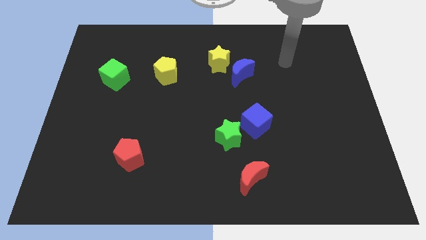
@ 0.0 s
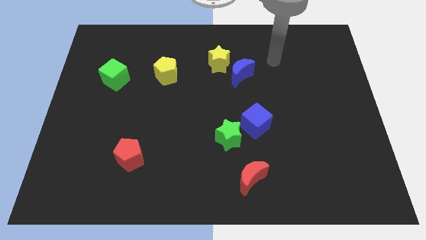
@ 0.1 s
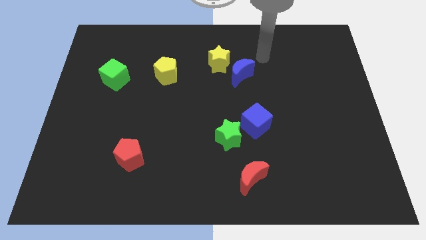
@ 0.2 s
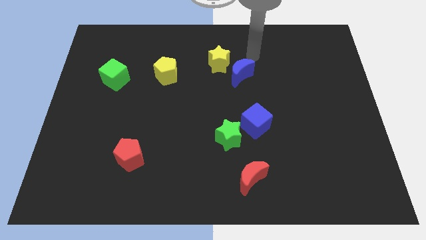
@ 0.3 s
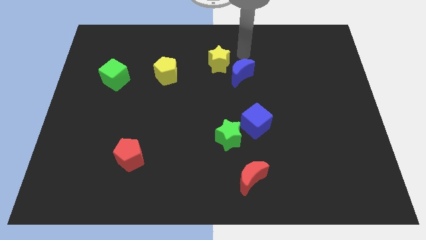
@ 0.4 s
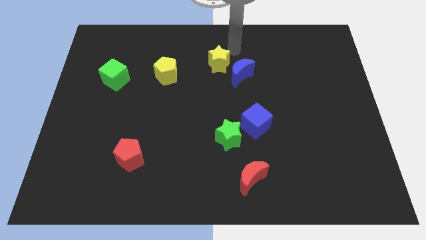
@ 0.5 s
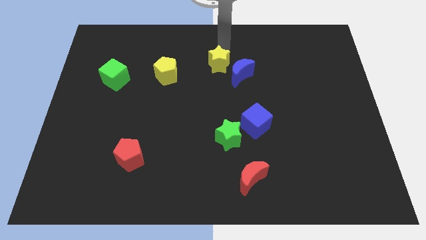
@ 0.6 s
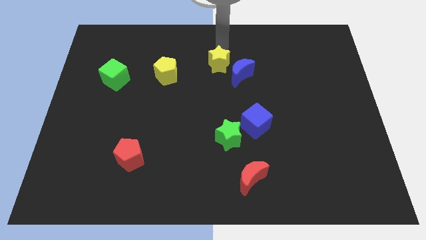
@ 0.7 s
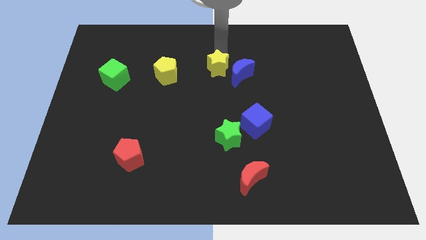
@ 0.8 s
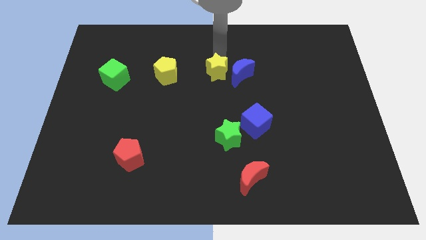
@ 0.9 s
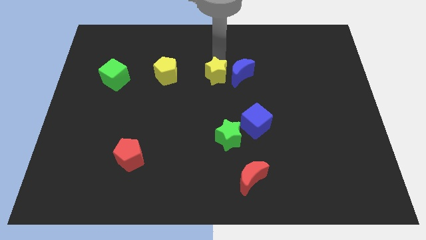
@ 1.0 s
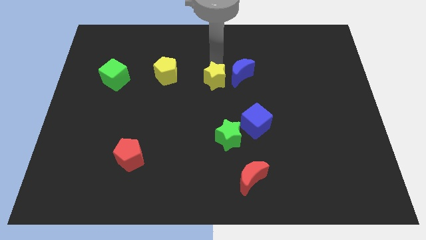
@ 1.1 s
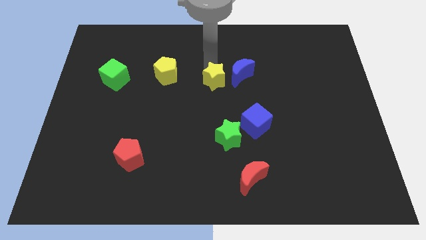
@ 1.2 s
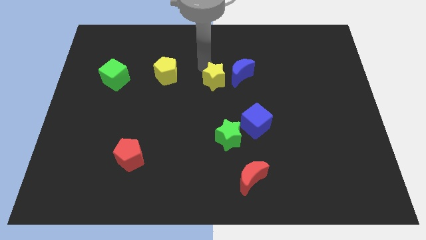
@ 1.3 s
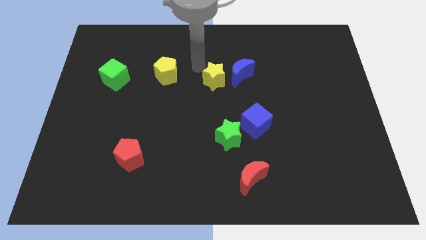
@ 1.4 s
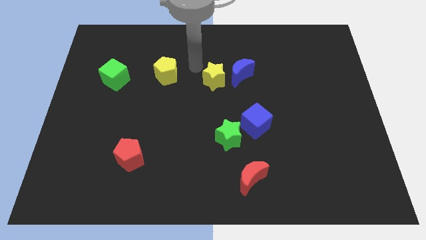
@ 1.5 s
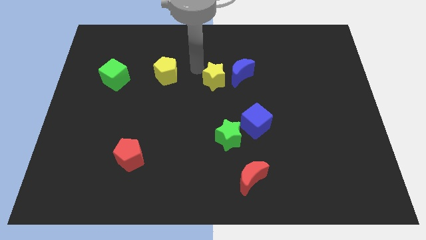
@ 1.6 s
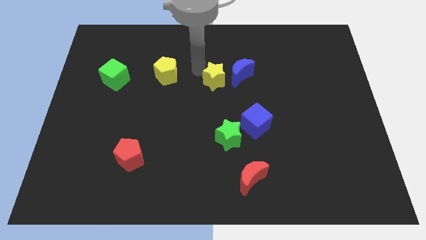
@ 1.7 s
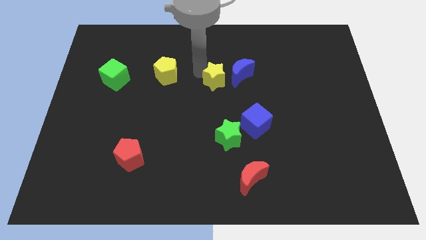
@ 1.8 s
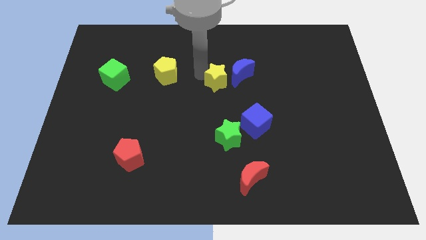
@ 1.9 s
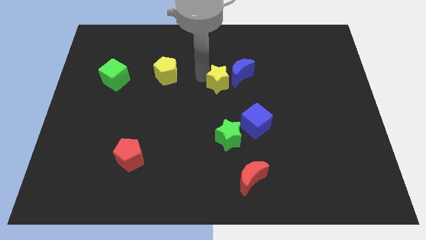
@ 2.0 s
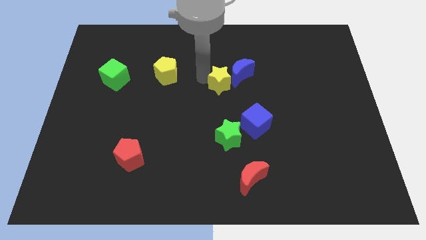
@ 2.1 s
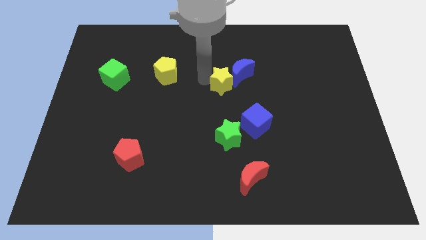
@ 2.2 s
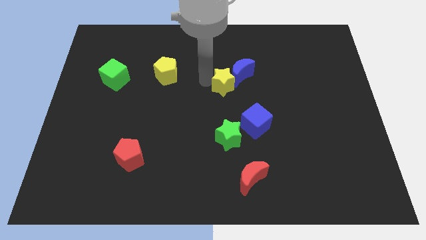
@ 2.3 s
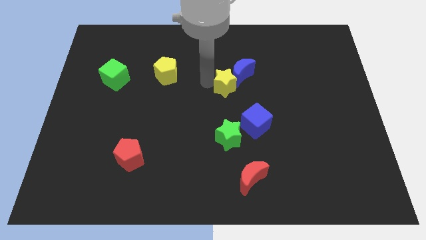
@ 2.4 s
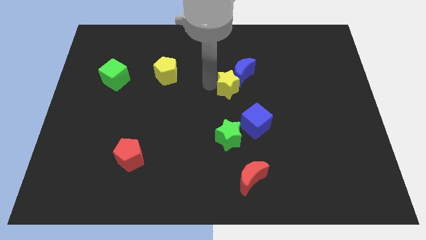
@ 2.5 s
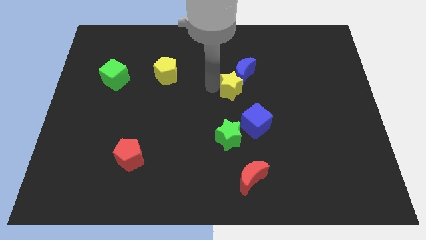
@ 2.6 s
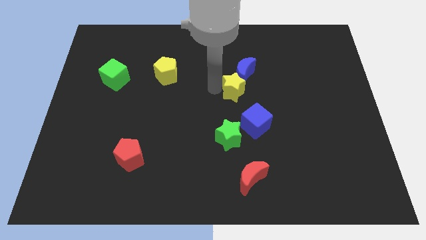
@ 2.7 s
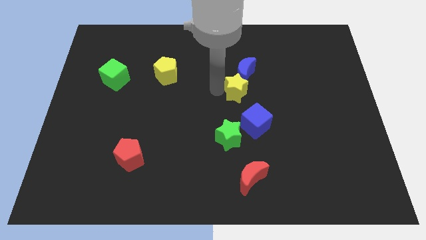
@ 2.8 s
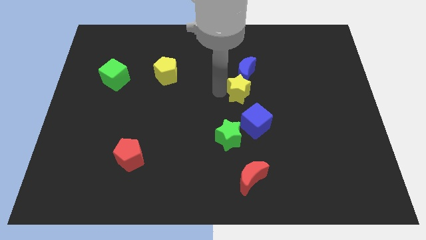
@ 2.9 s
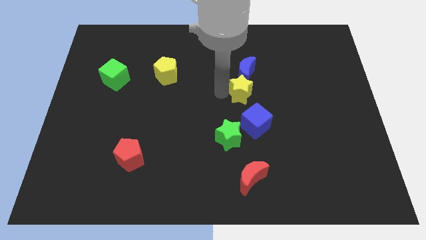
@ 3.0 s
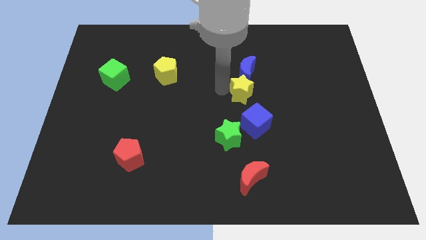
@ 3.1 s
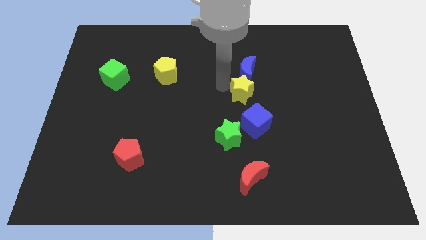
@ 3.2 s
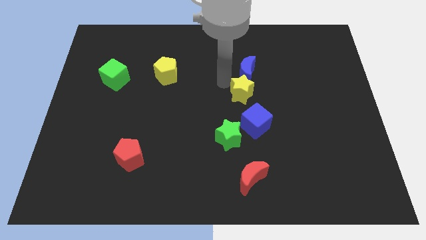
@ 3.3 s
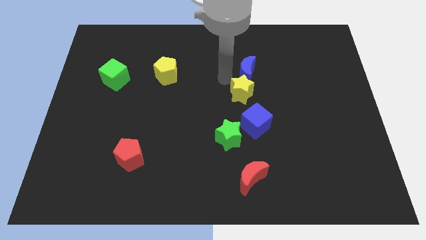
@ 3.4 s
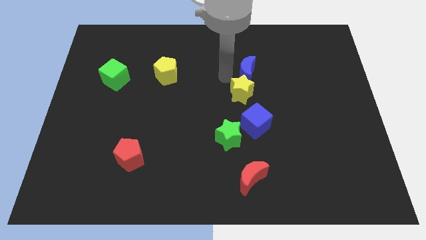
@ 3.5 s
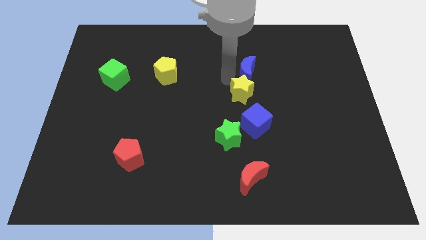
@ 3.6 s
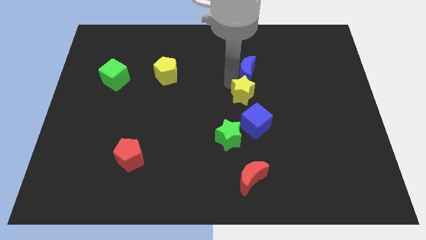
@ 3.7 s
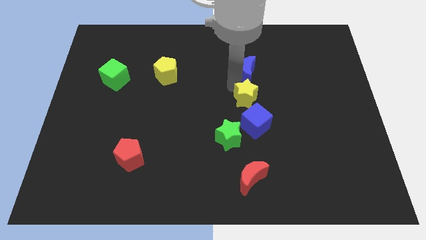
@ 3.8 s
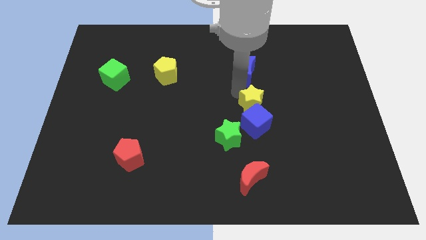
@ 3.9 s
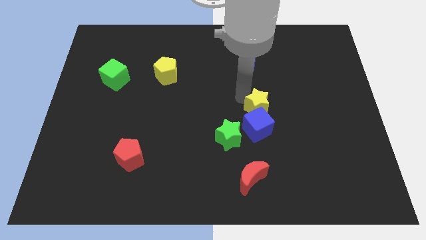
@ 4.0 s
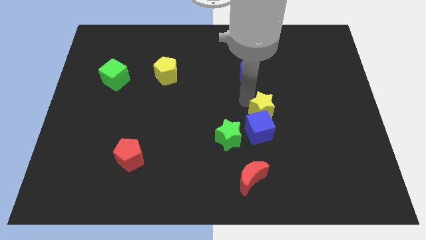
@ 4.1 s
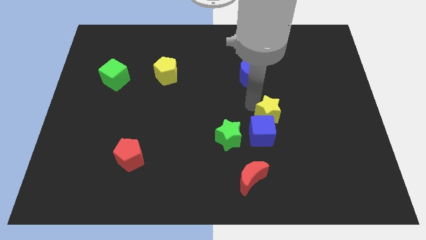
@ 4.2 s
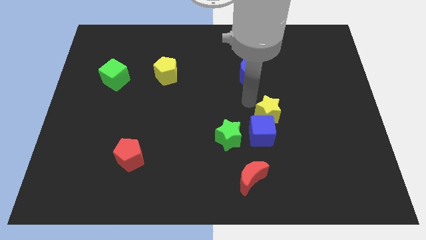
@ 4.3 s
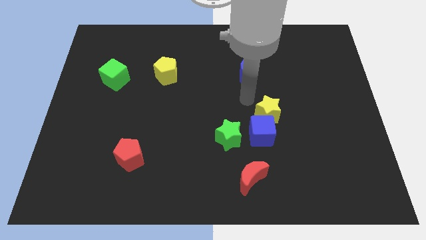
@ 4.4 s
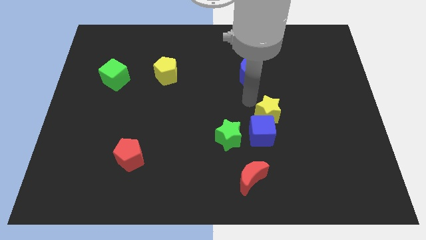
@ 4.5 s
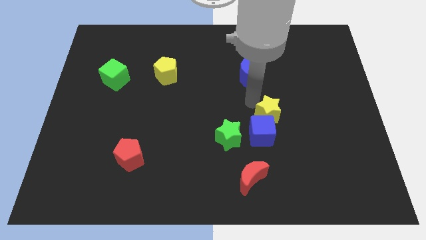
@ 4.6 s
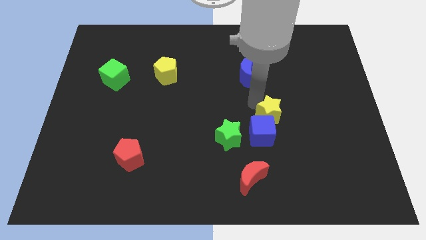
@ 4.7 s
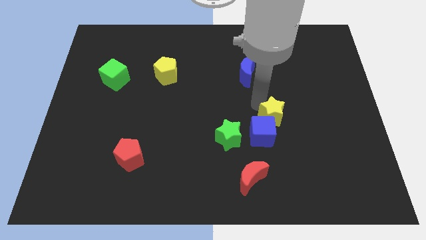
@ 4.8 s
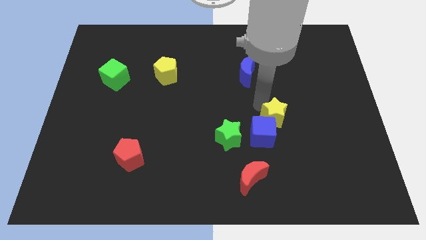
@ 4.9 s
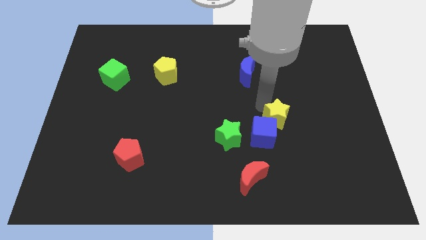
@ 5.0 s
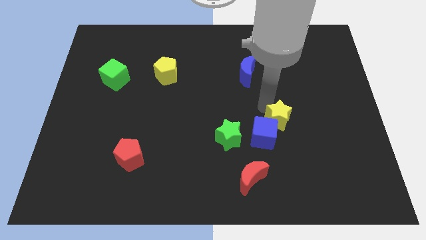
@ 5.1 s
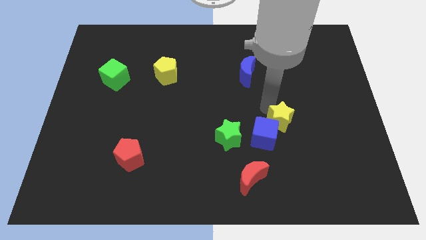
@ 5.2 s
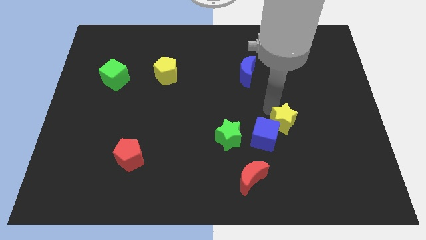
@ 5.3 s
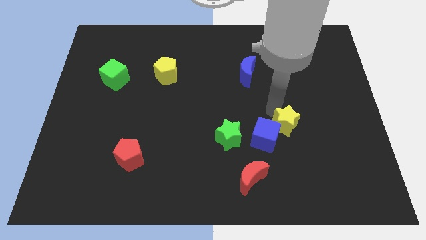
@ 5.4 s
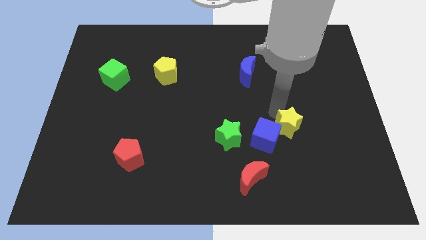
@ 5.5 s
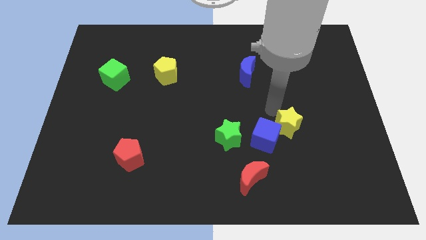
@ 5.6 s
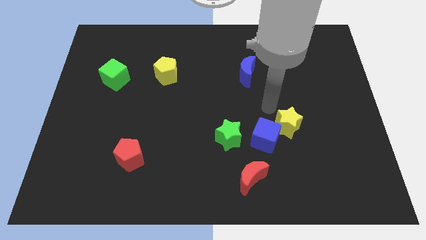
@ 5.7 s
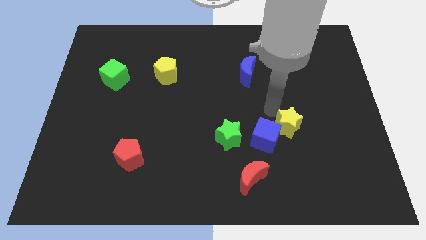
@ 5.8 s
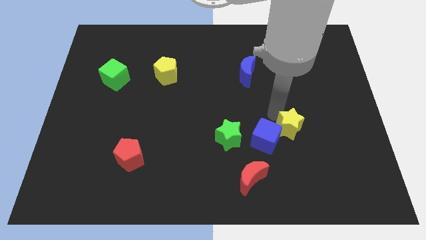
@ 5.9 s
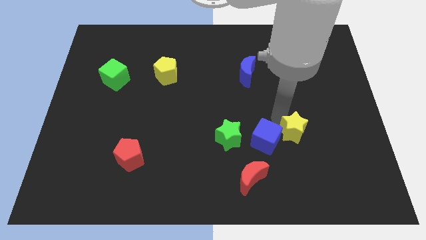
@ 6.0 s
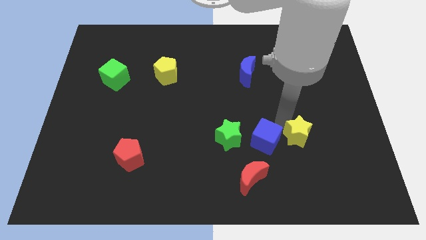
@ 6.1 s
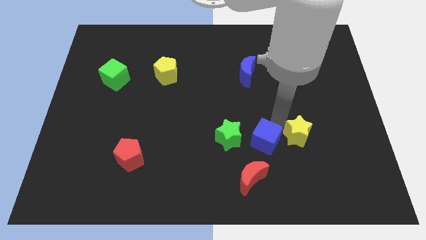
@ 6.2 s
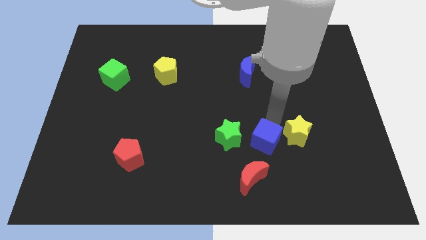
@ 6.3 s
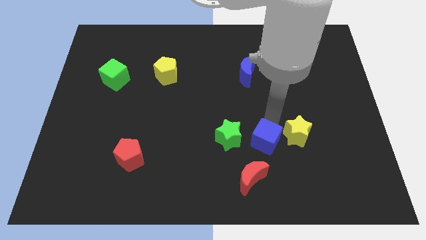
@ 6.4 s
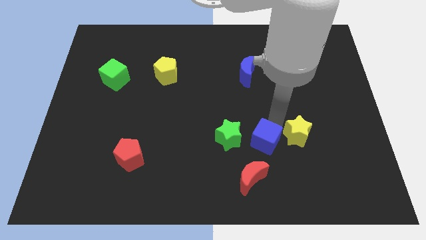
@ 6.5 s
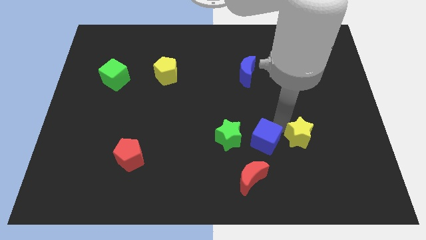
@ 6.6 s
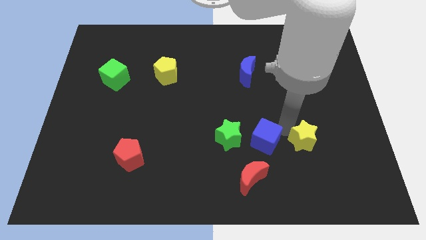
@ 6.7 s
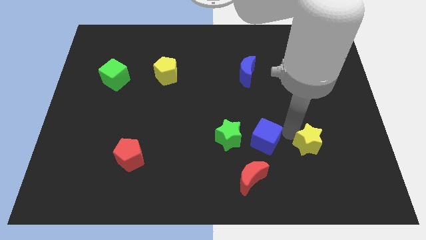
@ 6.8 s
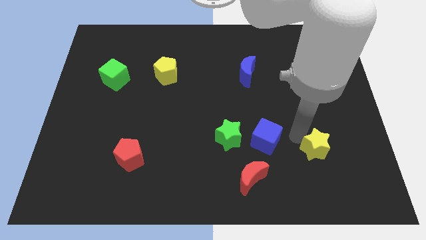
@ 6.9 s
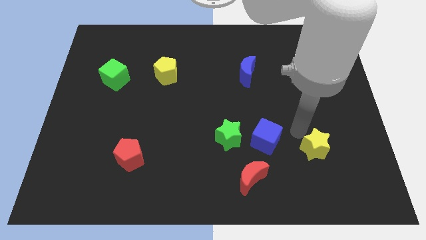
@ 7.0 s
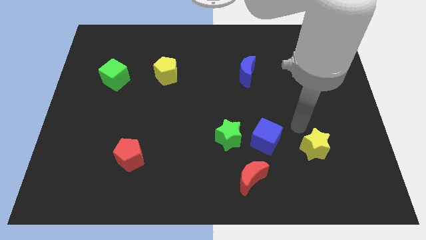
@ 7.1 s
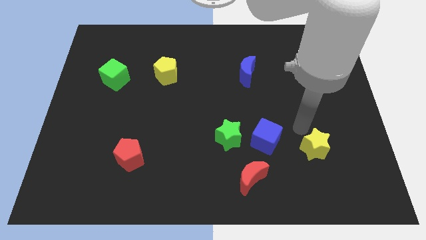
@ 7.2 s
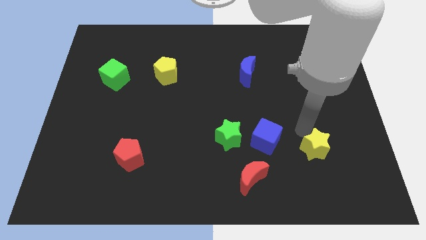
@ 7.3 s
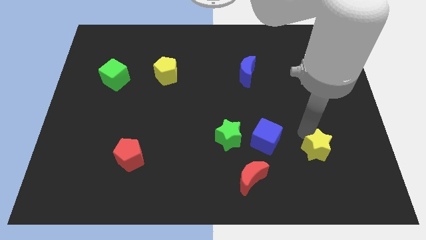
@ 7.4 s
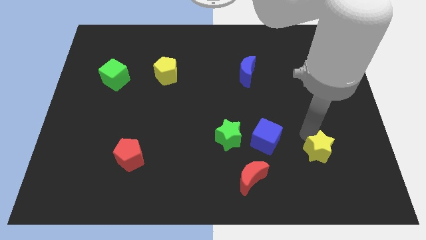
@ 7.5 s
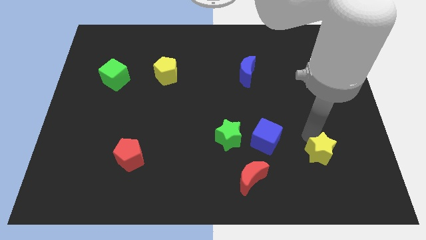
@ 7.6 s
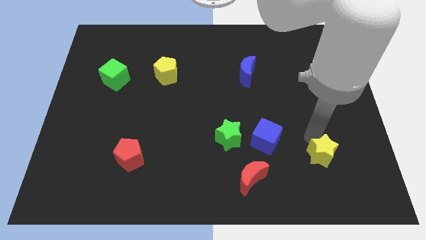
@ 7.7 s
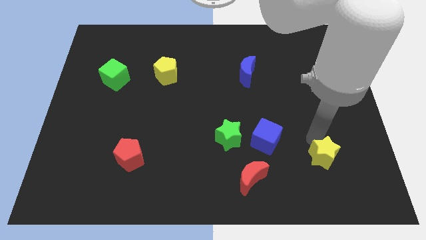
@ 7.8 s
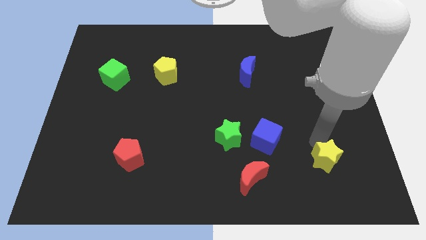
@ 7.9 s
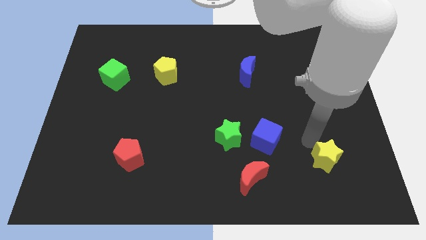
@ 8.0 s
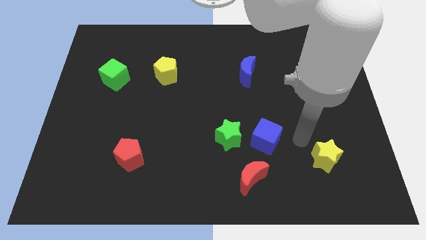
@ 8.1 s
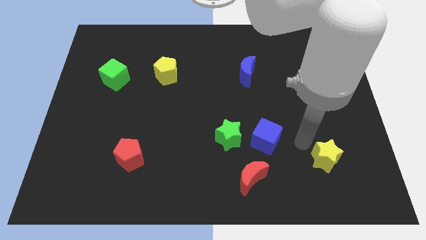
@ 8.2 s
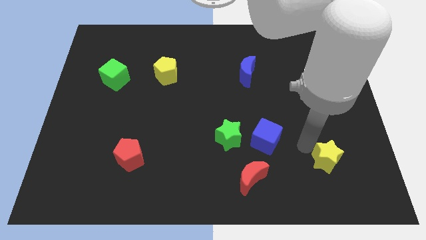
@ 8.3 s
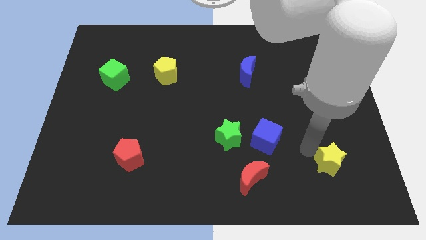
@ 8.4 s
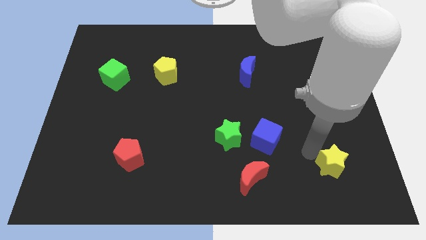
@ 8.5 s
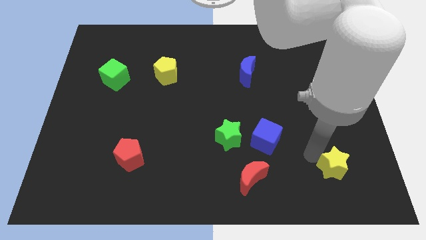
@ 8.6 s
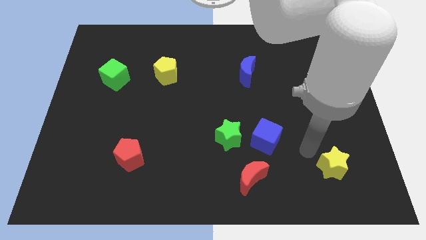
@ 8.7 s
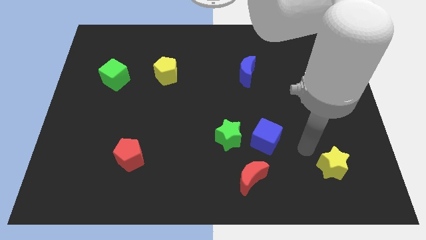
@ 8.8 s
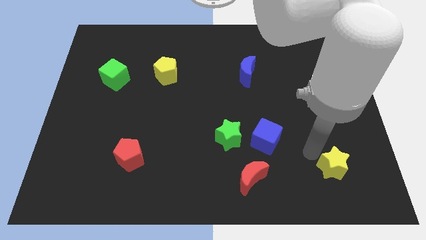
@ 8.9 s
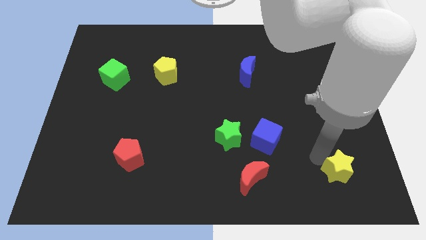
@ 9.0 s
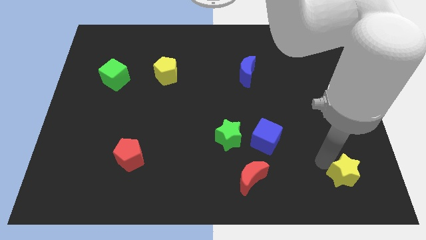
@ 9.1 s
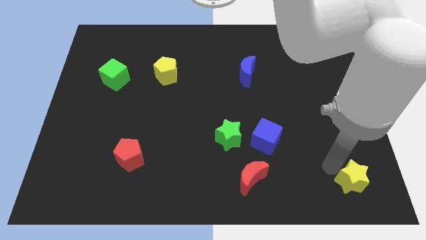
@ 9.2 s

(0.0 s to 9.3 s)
move the yellow star to the bottom right of the board
